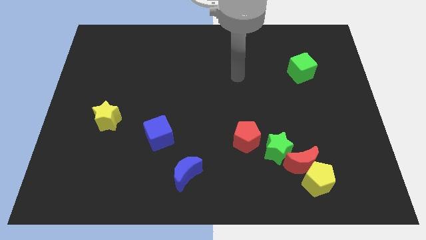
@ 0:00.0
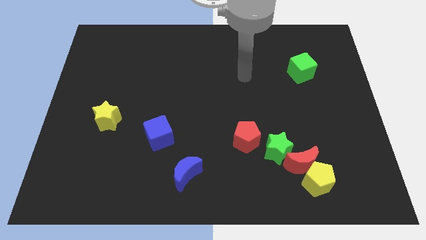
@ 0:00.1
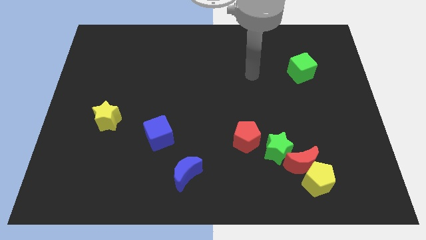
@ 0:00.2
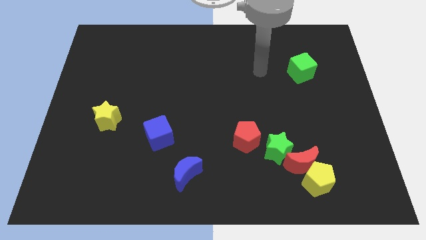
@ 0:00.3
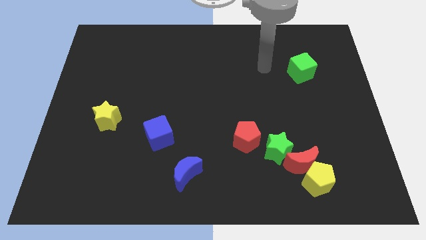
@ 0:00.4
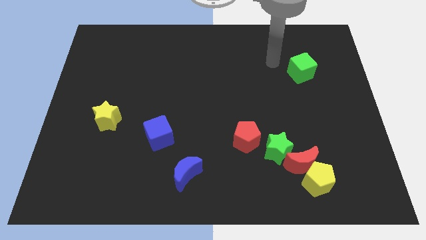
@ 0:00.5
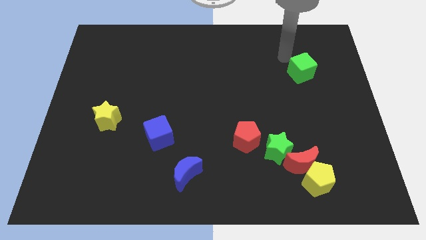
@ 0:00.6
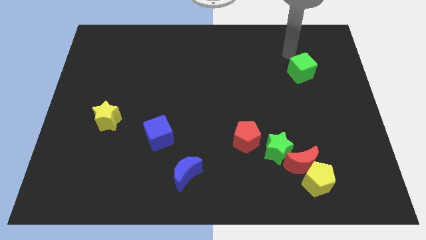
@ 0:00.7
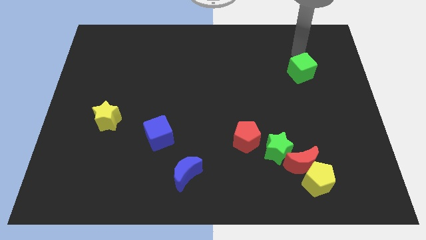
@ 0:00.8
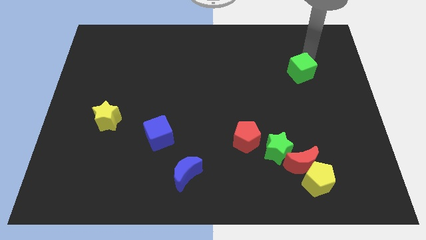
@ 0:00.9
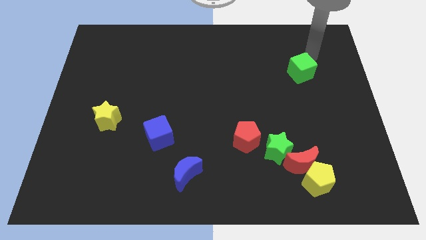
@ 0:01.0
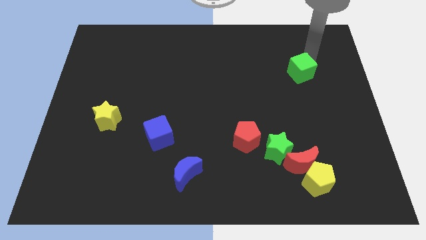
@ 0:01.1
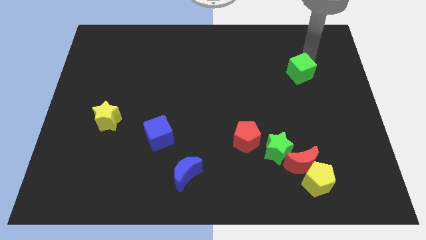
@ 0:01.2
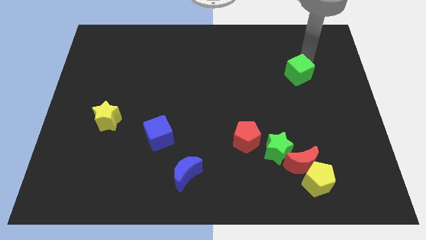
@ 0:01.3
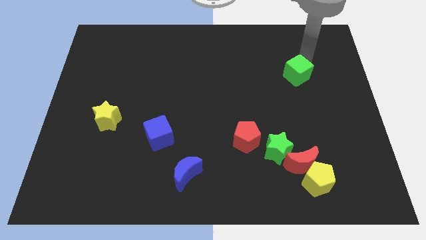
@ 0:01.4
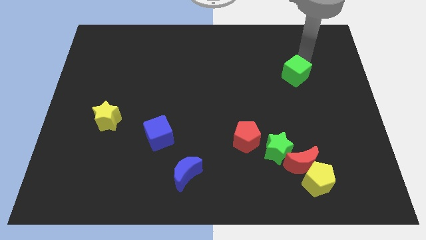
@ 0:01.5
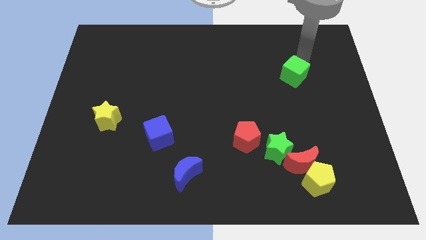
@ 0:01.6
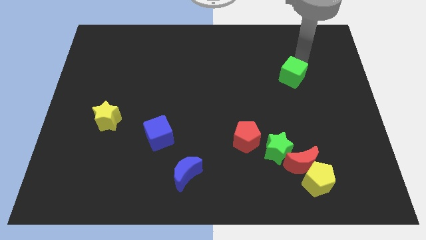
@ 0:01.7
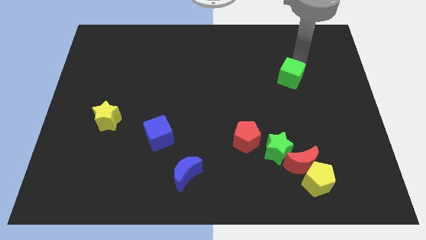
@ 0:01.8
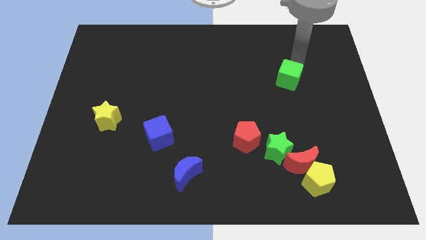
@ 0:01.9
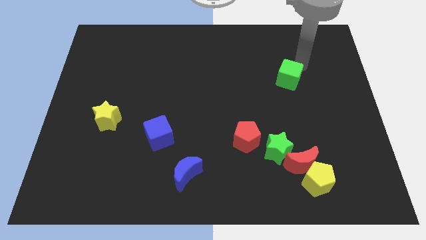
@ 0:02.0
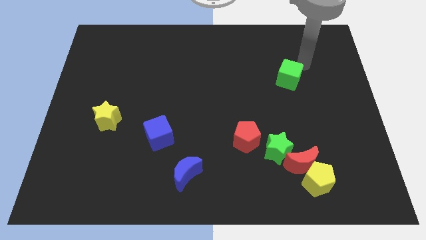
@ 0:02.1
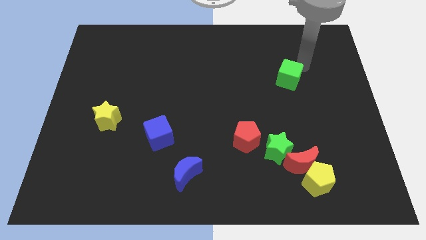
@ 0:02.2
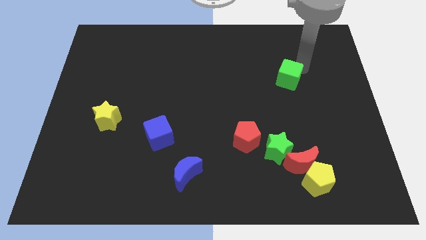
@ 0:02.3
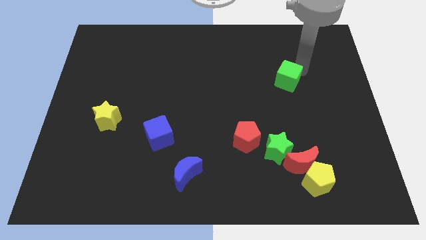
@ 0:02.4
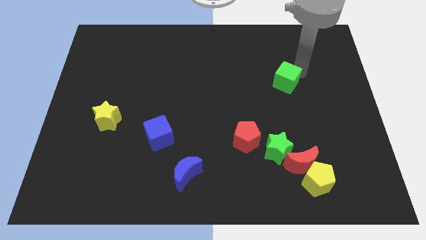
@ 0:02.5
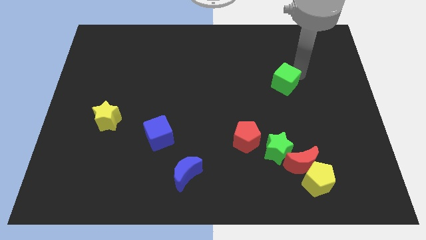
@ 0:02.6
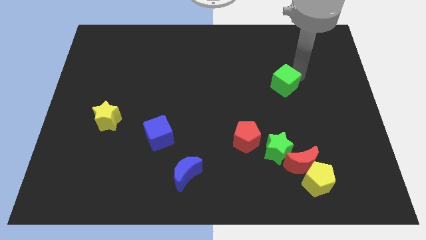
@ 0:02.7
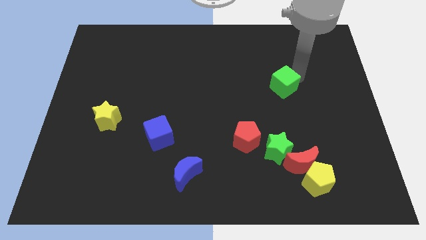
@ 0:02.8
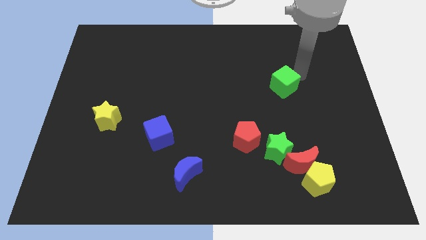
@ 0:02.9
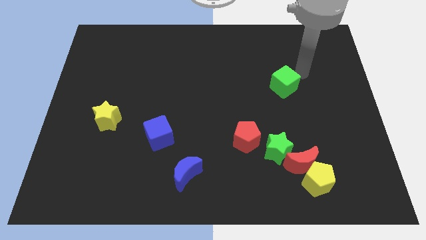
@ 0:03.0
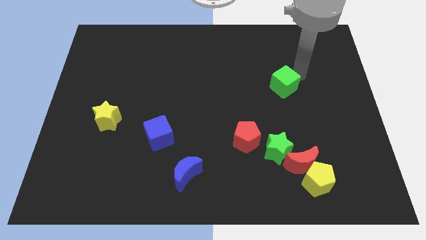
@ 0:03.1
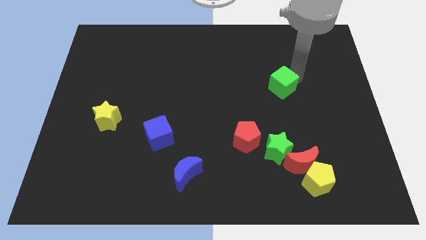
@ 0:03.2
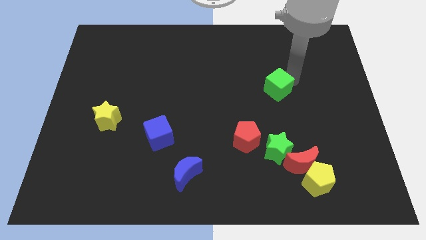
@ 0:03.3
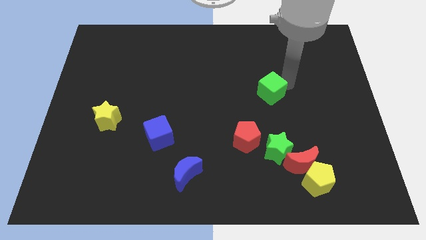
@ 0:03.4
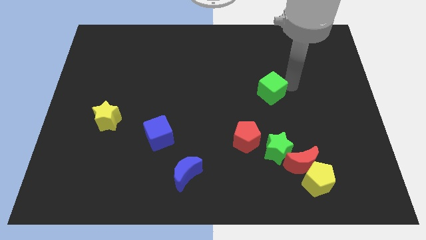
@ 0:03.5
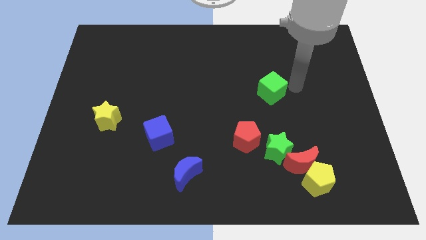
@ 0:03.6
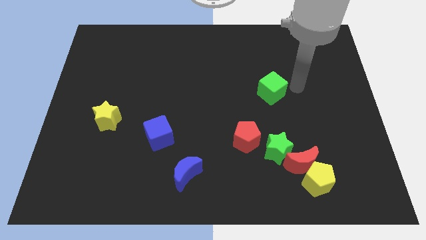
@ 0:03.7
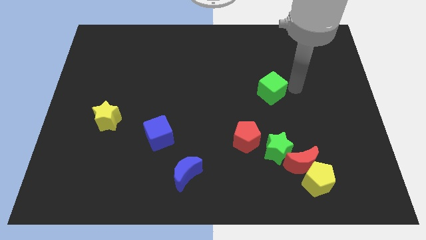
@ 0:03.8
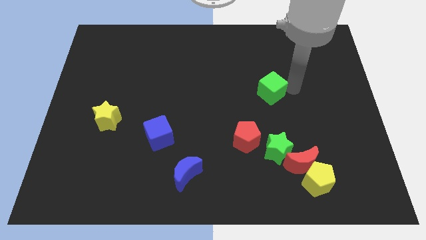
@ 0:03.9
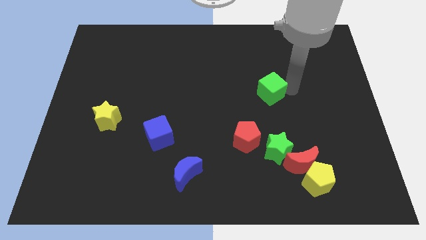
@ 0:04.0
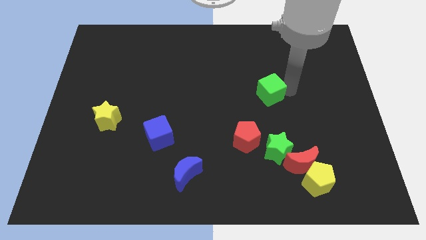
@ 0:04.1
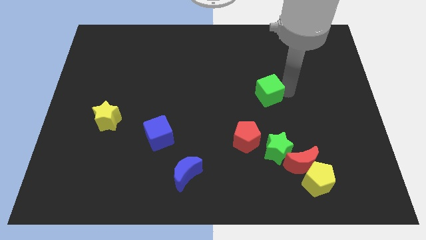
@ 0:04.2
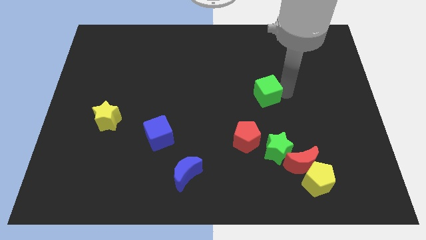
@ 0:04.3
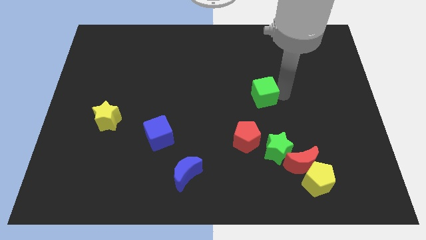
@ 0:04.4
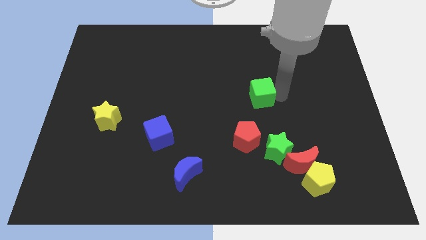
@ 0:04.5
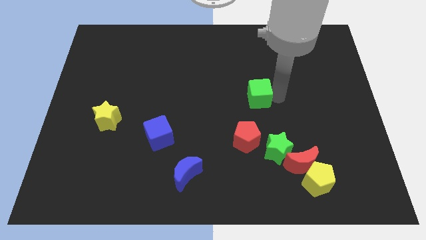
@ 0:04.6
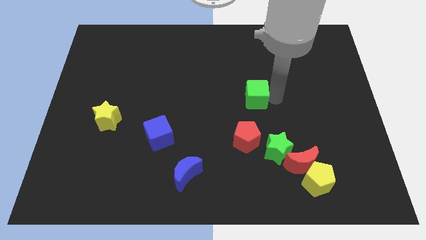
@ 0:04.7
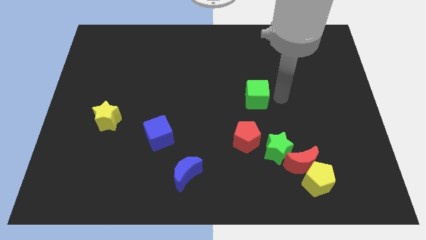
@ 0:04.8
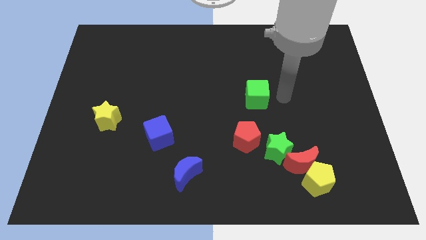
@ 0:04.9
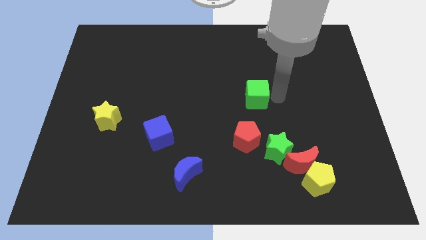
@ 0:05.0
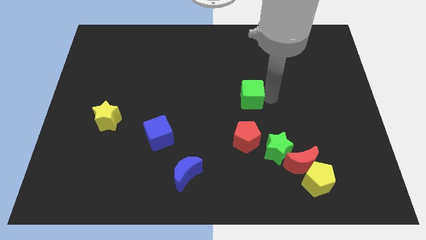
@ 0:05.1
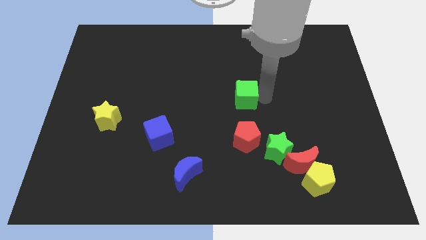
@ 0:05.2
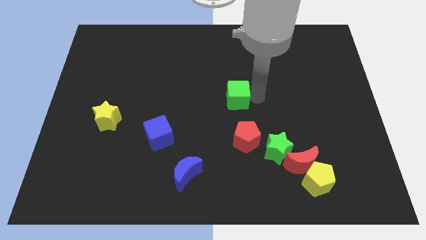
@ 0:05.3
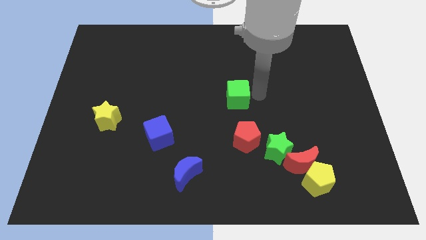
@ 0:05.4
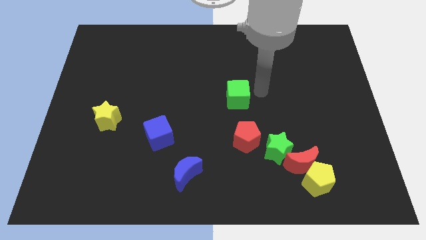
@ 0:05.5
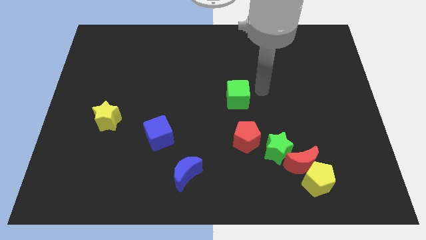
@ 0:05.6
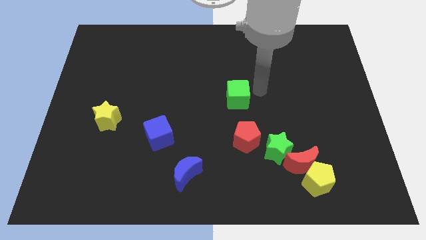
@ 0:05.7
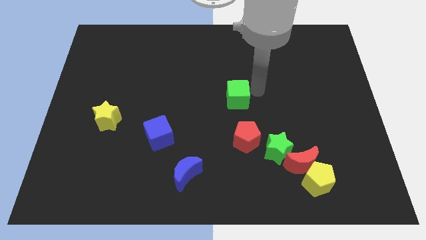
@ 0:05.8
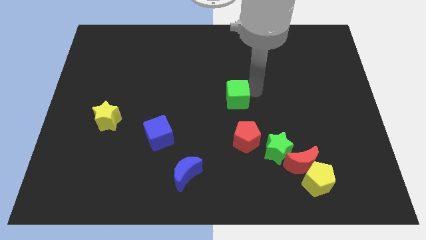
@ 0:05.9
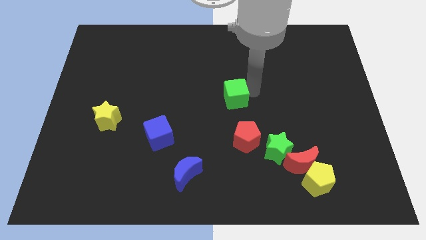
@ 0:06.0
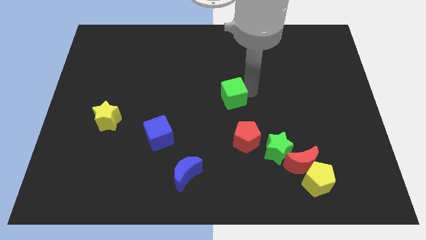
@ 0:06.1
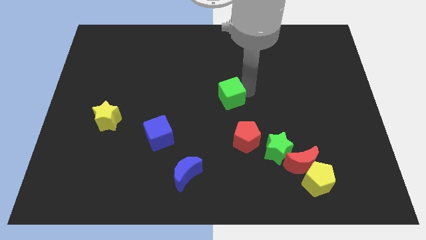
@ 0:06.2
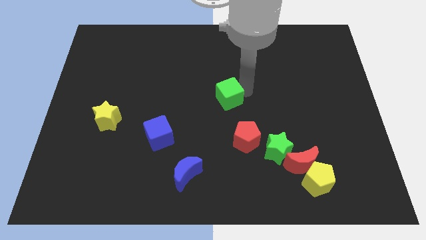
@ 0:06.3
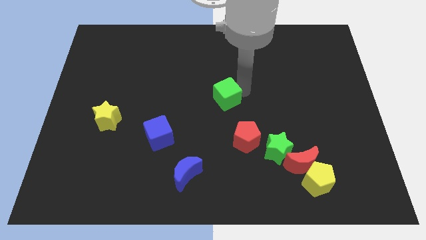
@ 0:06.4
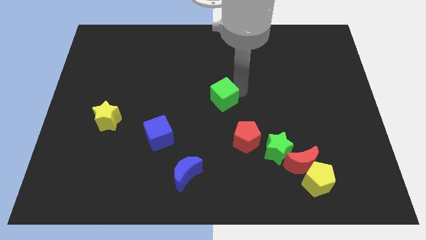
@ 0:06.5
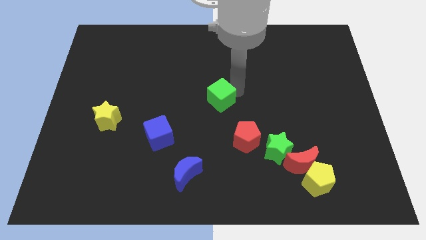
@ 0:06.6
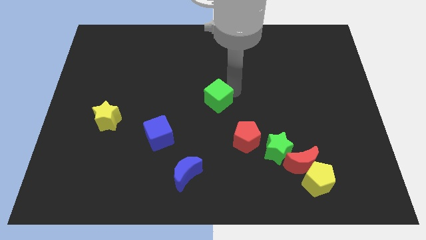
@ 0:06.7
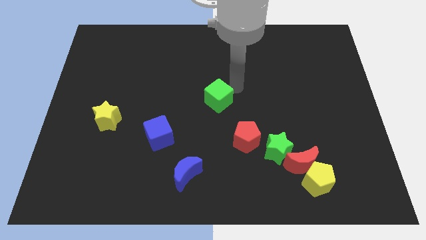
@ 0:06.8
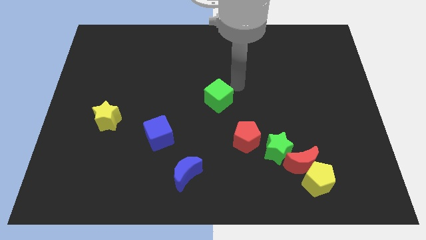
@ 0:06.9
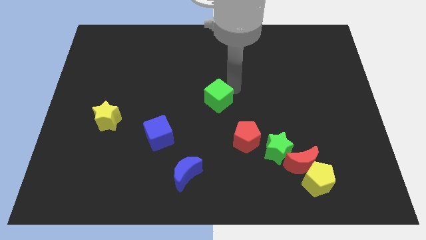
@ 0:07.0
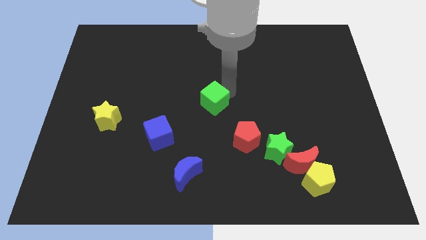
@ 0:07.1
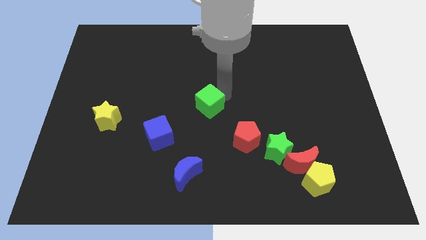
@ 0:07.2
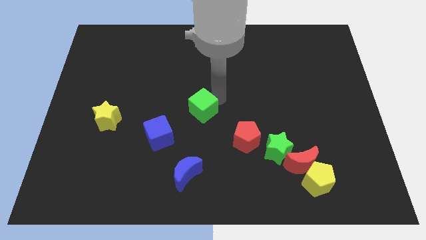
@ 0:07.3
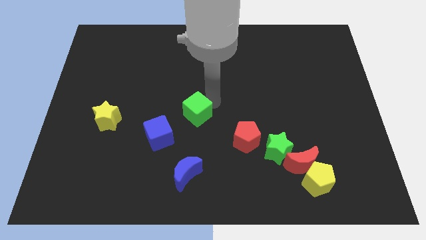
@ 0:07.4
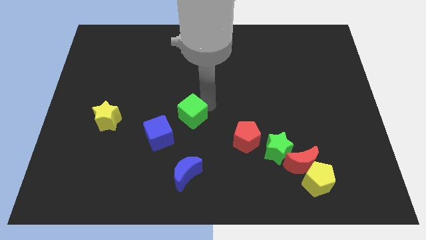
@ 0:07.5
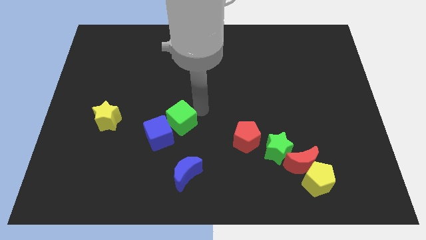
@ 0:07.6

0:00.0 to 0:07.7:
push the green cube next to the blue cube
